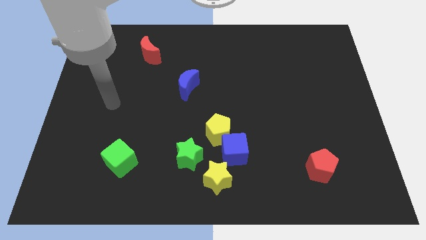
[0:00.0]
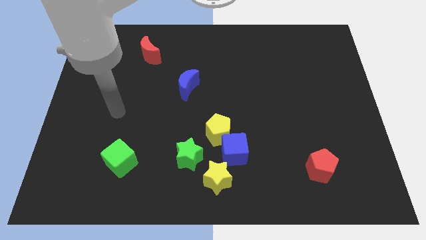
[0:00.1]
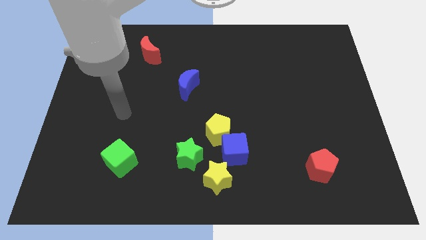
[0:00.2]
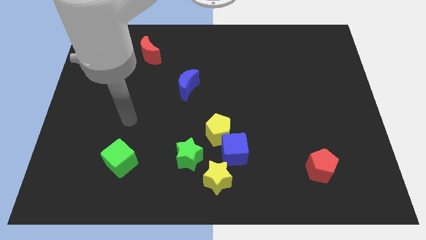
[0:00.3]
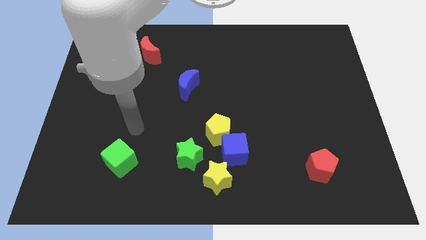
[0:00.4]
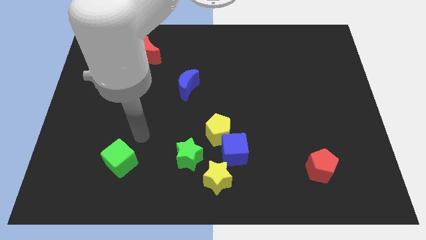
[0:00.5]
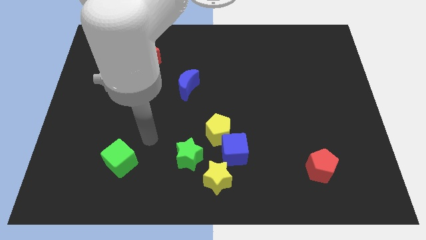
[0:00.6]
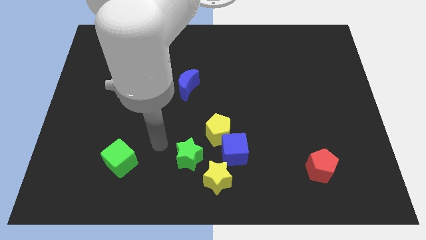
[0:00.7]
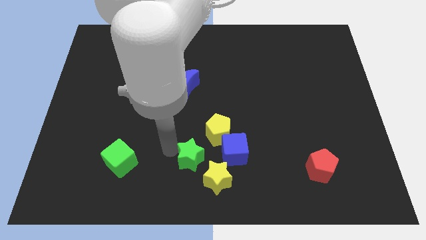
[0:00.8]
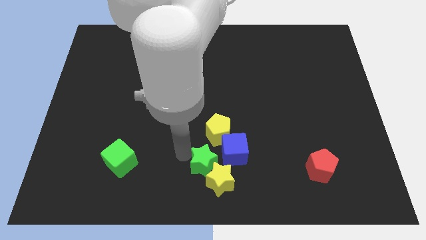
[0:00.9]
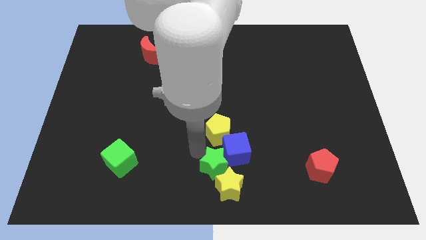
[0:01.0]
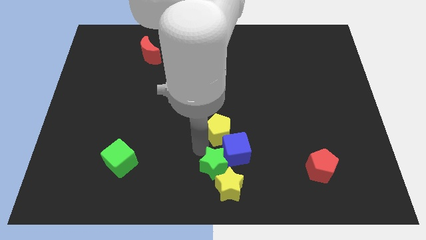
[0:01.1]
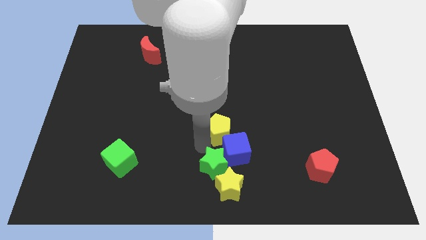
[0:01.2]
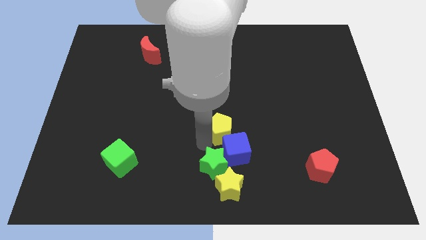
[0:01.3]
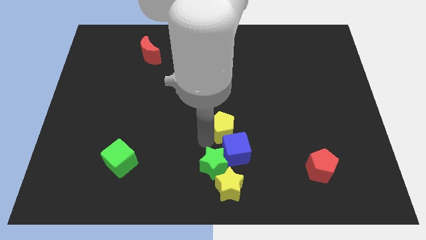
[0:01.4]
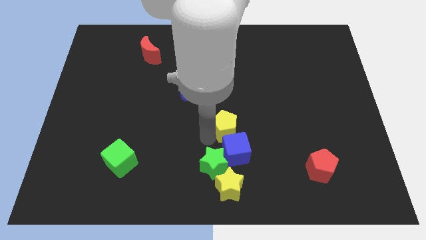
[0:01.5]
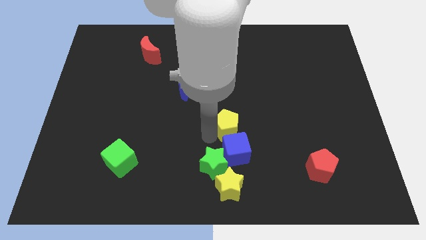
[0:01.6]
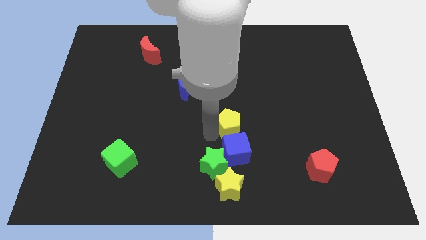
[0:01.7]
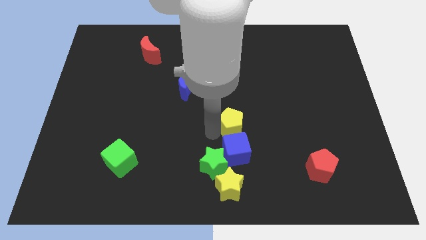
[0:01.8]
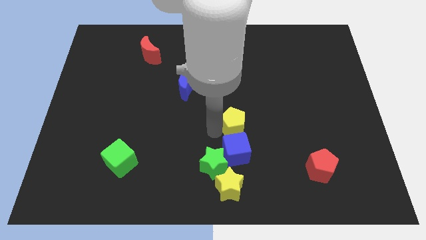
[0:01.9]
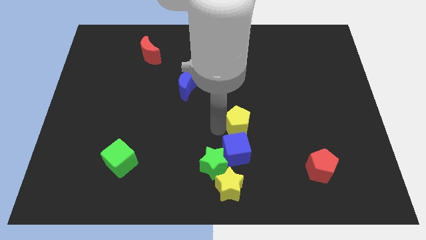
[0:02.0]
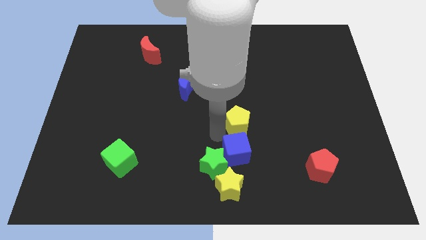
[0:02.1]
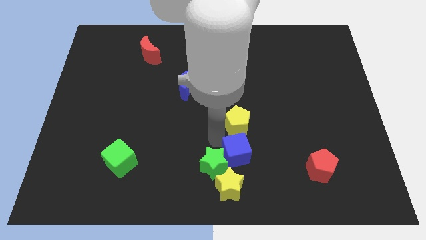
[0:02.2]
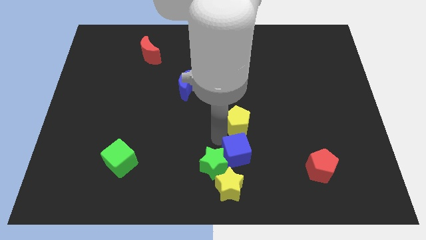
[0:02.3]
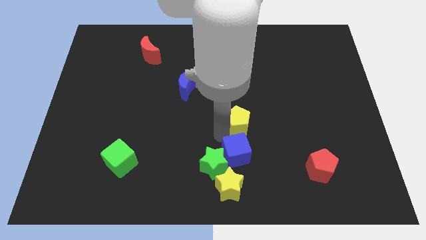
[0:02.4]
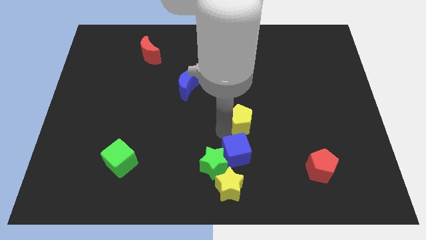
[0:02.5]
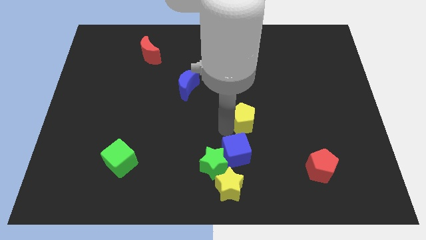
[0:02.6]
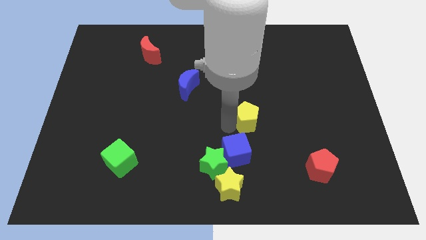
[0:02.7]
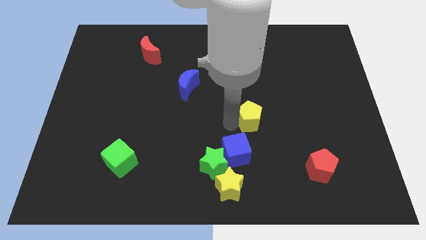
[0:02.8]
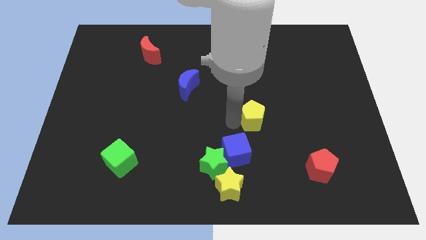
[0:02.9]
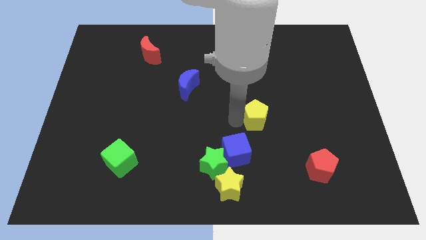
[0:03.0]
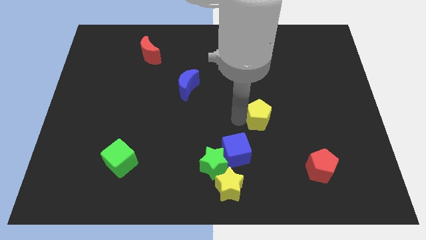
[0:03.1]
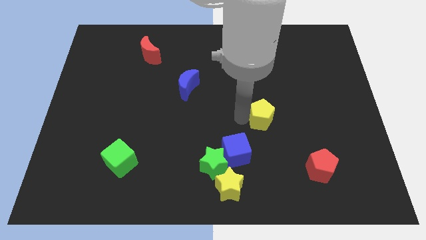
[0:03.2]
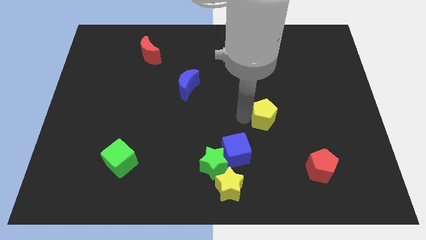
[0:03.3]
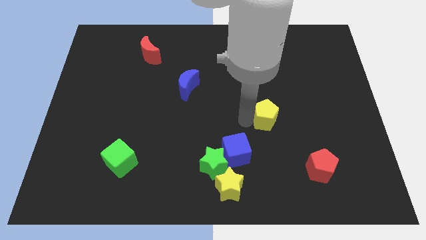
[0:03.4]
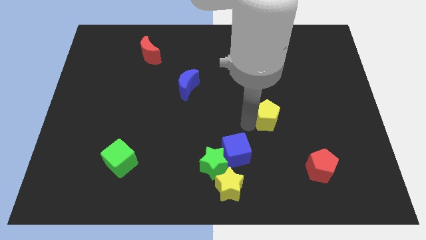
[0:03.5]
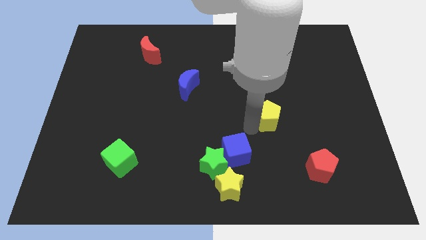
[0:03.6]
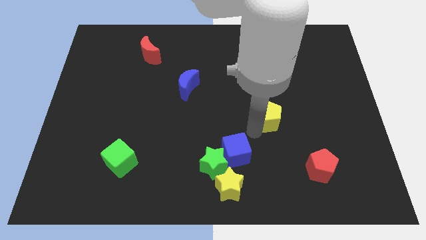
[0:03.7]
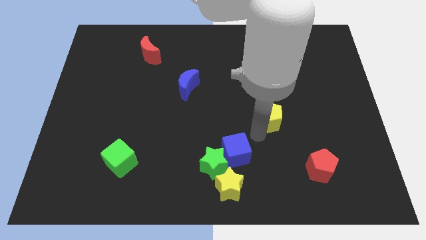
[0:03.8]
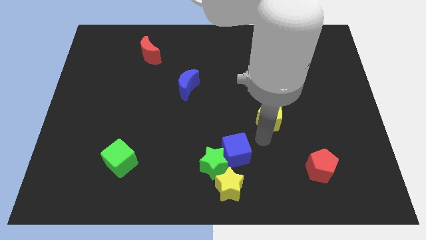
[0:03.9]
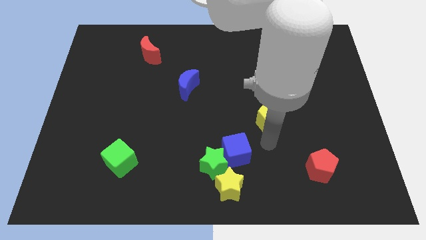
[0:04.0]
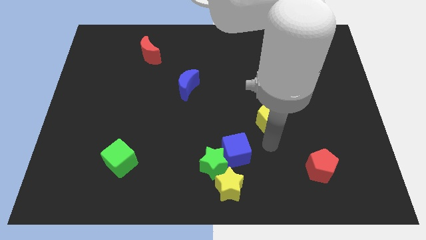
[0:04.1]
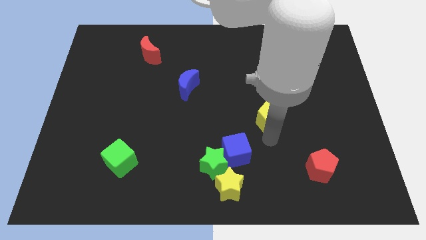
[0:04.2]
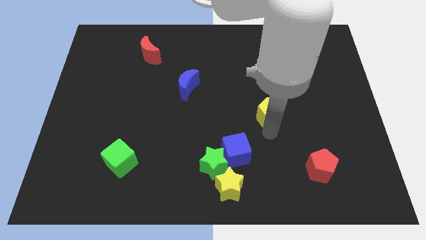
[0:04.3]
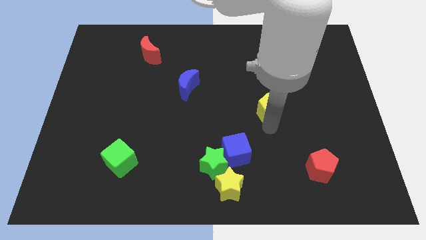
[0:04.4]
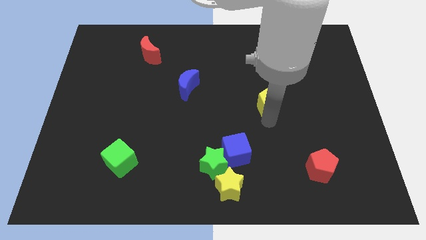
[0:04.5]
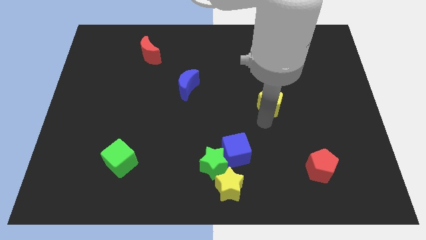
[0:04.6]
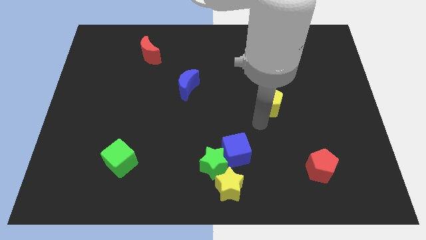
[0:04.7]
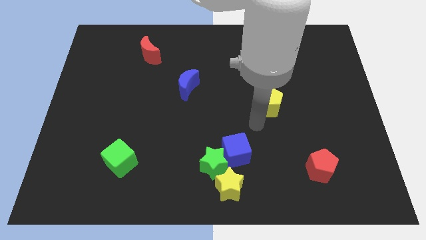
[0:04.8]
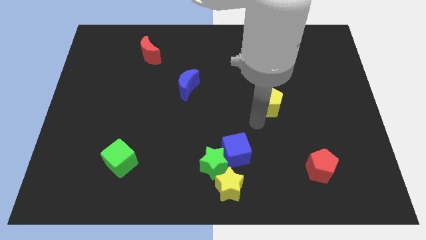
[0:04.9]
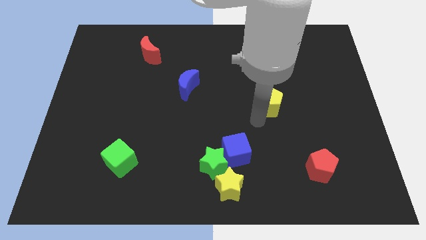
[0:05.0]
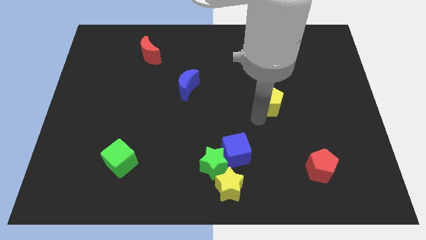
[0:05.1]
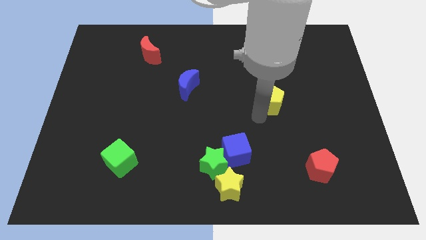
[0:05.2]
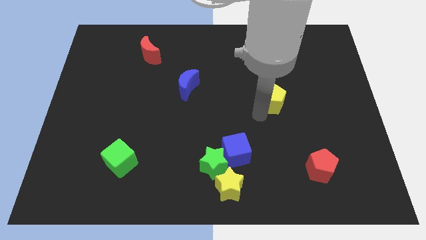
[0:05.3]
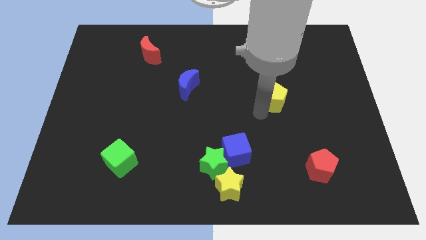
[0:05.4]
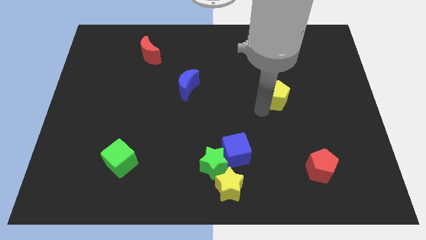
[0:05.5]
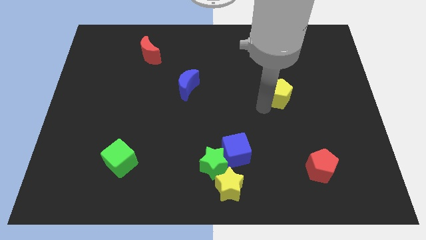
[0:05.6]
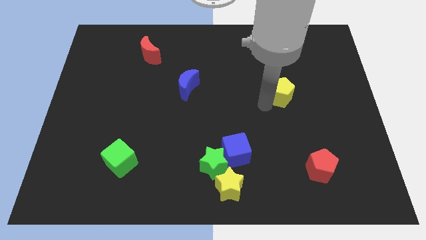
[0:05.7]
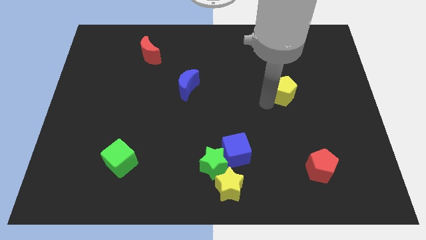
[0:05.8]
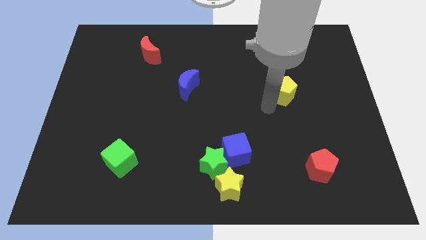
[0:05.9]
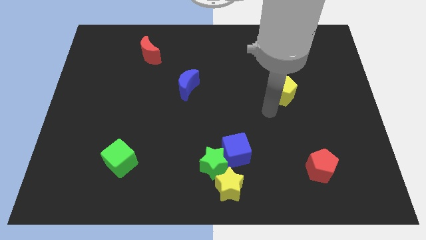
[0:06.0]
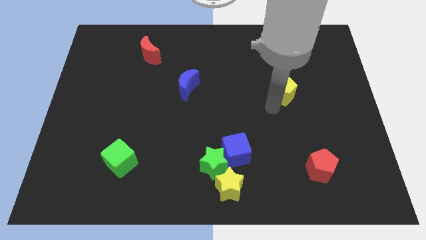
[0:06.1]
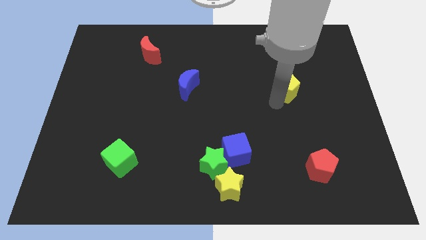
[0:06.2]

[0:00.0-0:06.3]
slide the yellow pentagon upwards and then to the right

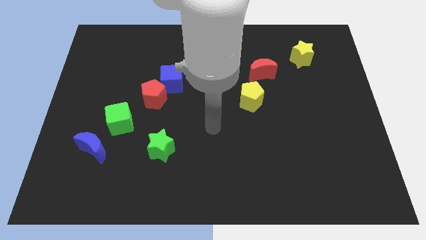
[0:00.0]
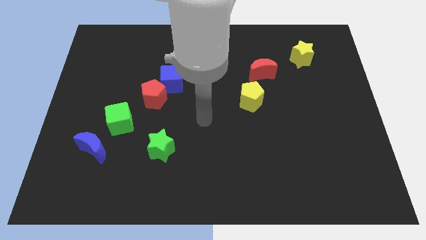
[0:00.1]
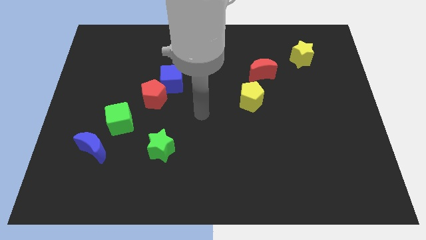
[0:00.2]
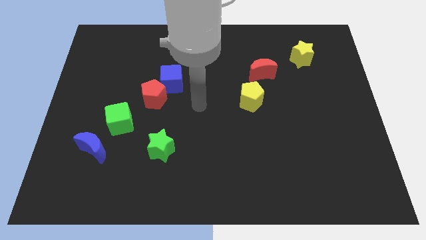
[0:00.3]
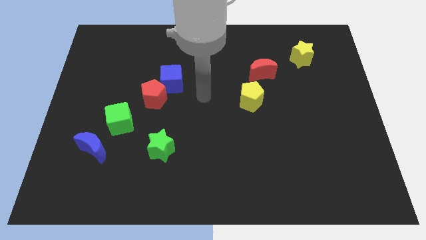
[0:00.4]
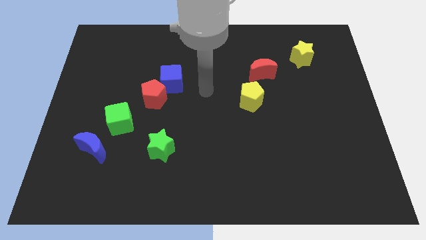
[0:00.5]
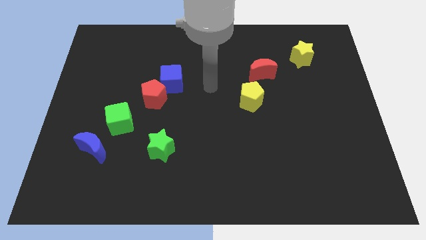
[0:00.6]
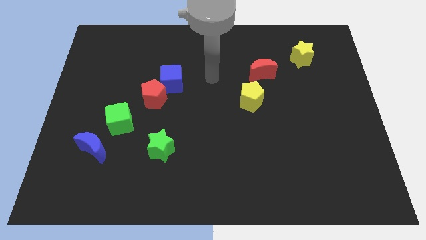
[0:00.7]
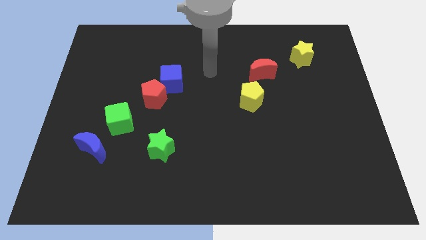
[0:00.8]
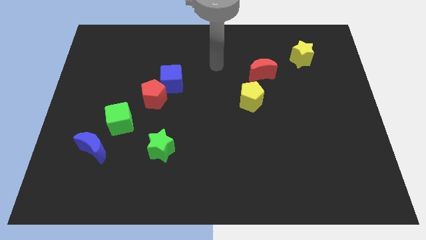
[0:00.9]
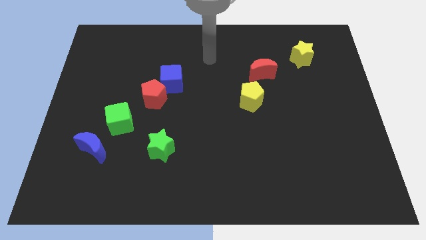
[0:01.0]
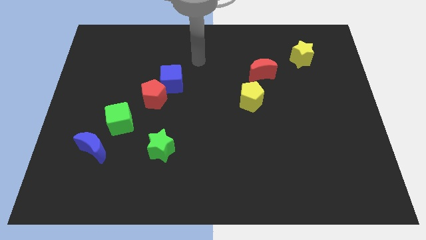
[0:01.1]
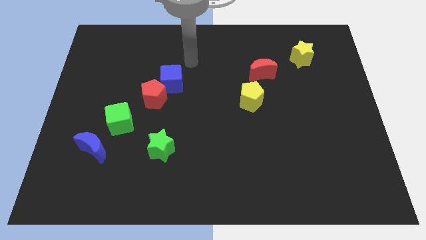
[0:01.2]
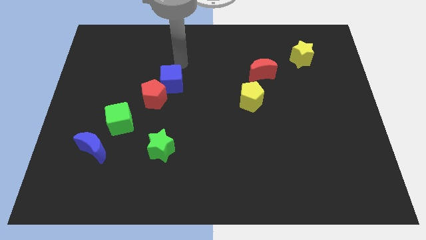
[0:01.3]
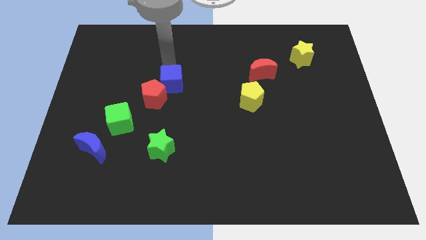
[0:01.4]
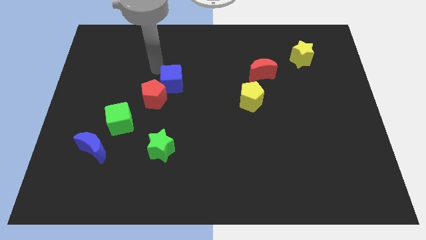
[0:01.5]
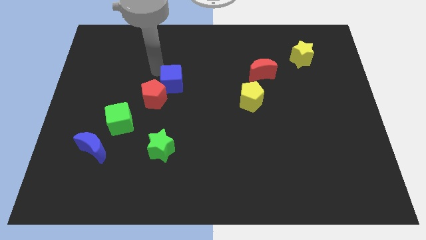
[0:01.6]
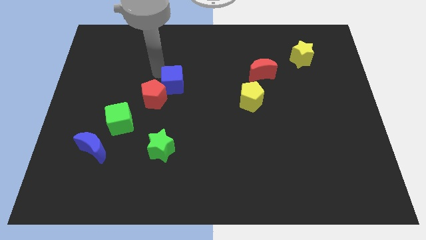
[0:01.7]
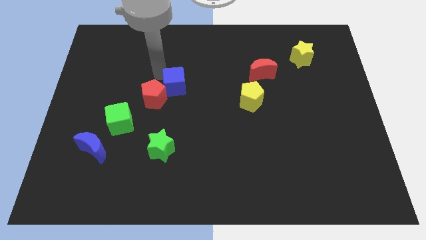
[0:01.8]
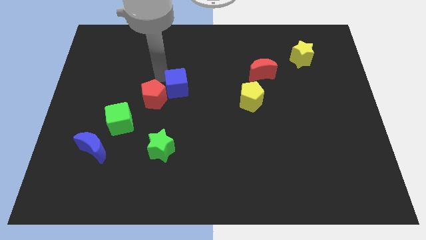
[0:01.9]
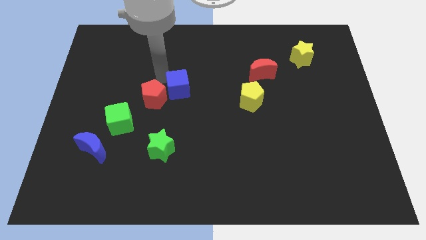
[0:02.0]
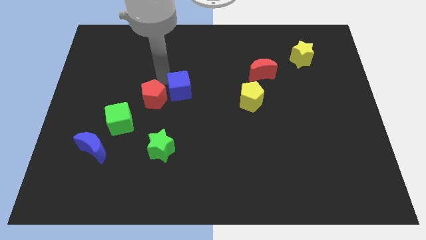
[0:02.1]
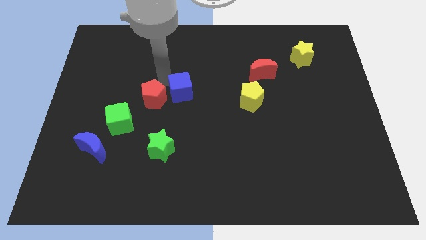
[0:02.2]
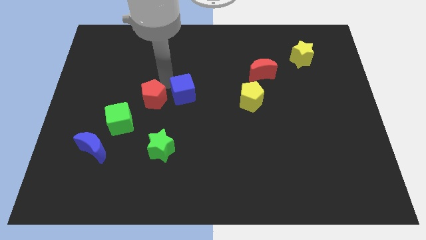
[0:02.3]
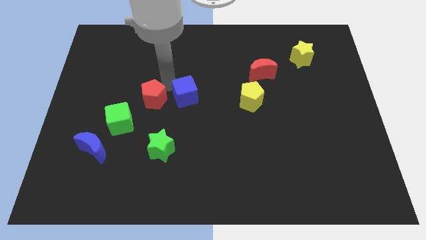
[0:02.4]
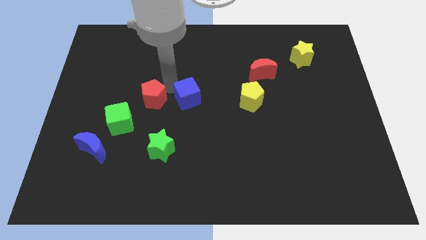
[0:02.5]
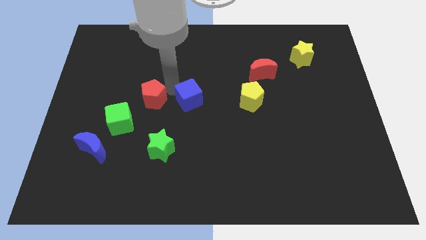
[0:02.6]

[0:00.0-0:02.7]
slightly slide the blue cube downwards and then to the right
